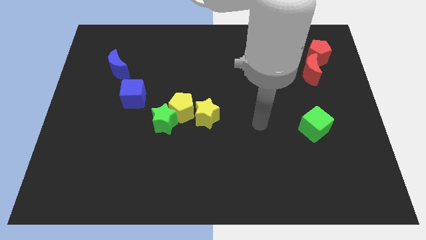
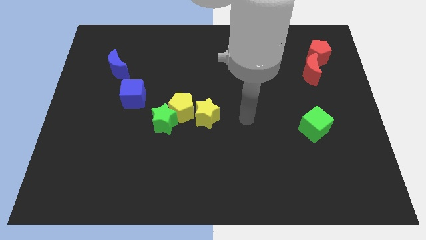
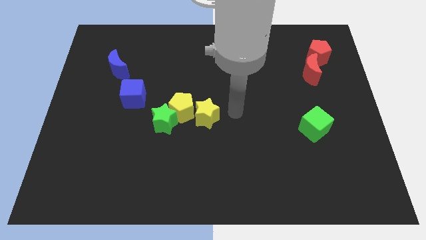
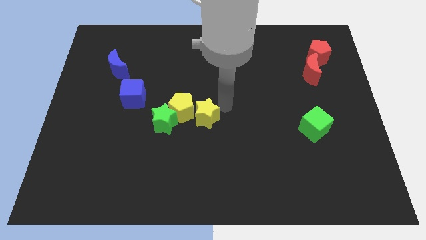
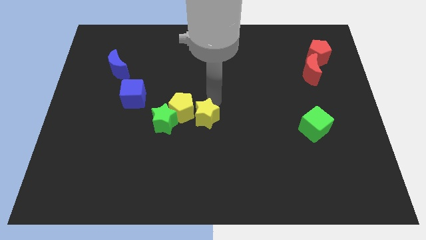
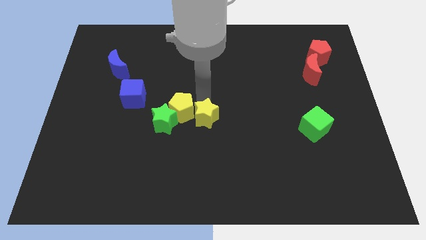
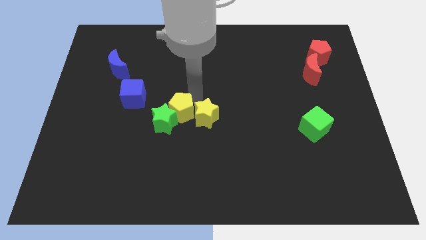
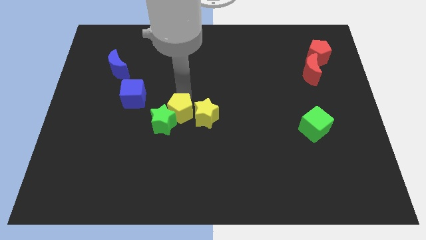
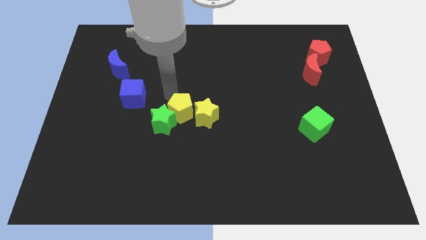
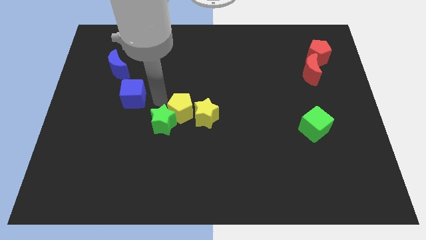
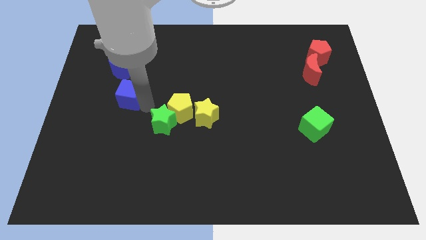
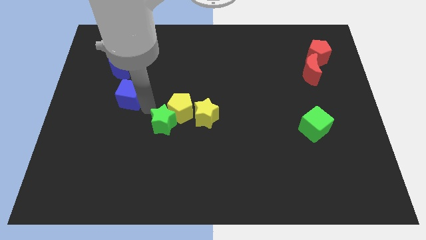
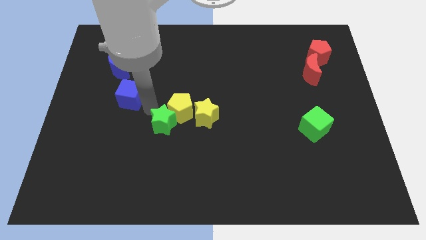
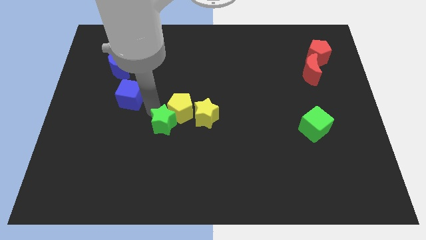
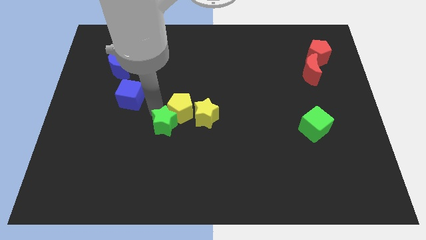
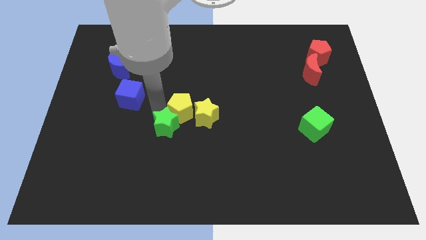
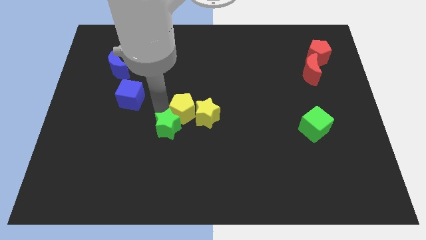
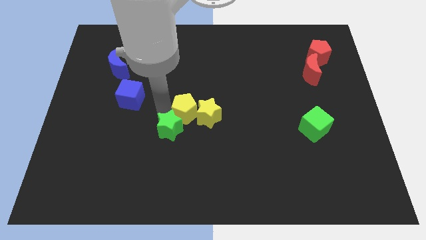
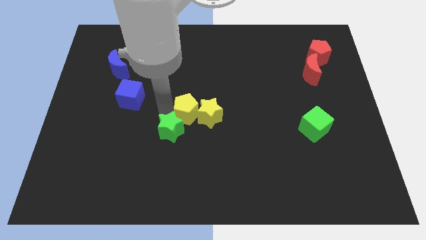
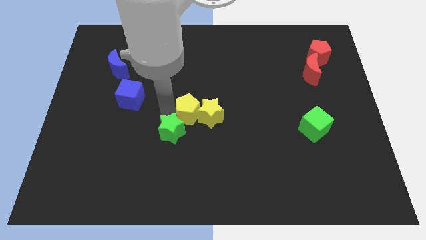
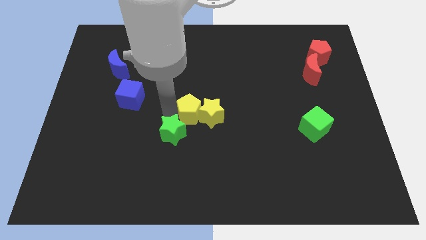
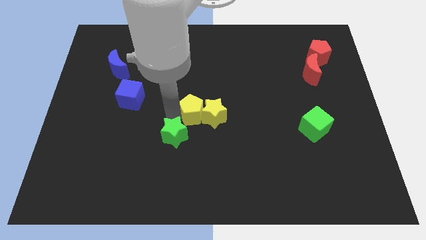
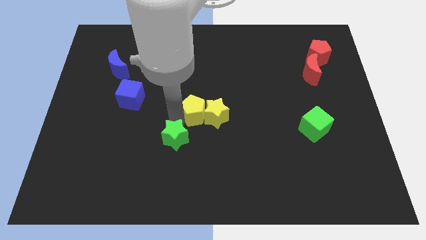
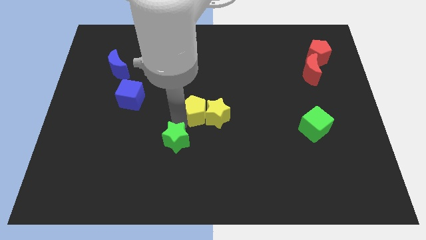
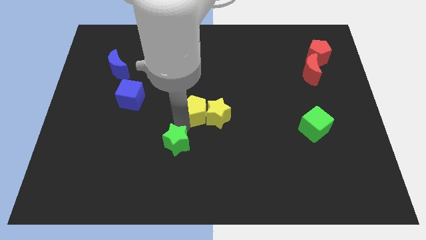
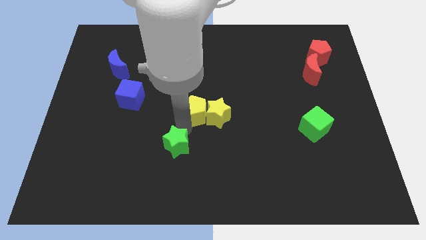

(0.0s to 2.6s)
move the green star a little bit diagonally down and to the right

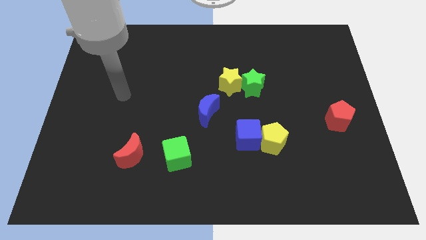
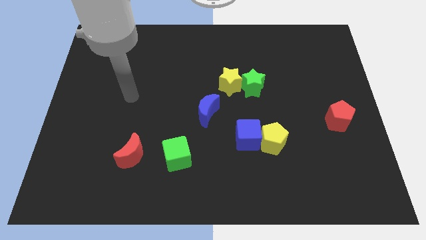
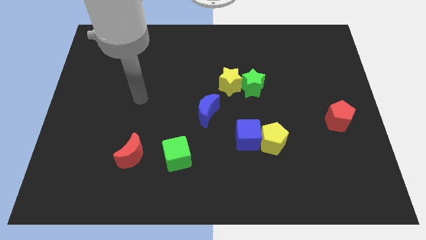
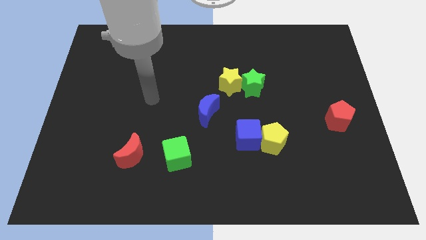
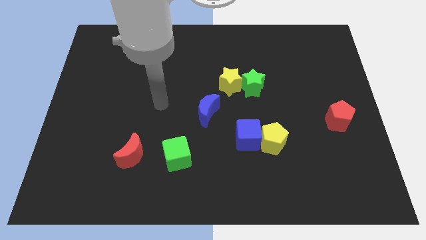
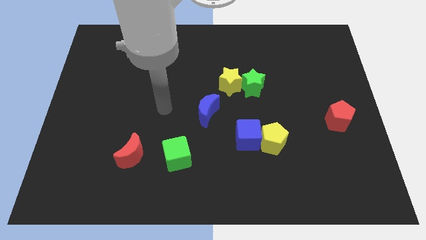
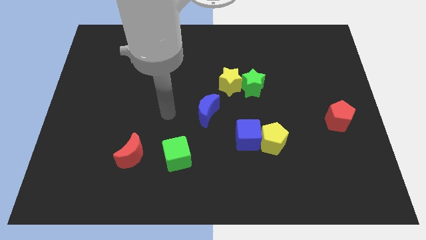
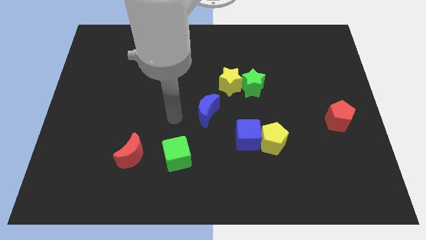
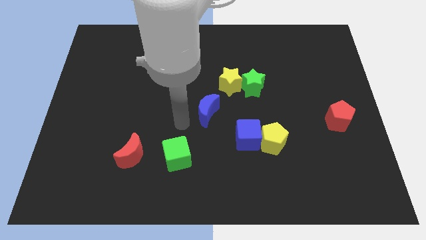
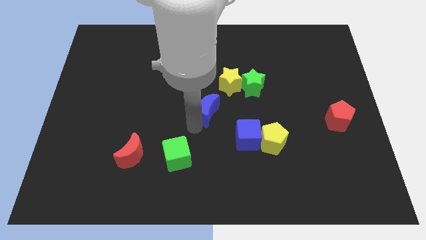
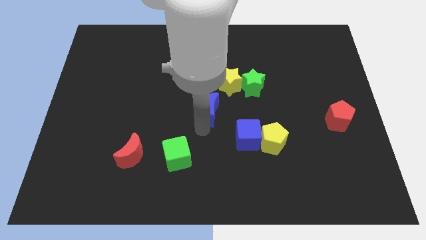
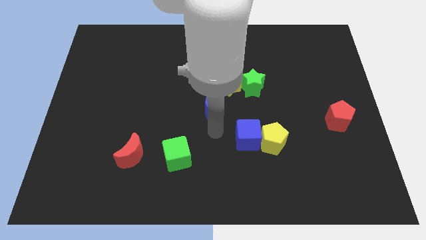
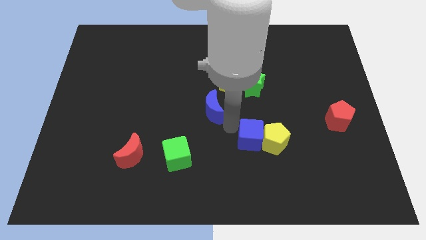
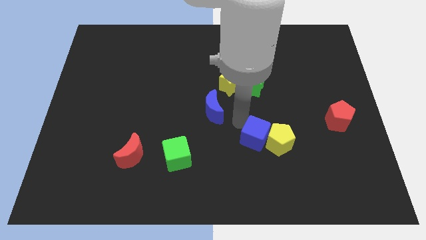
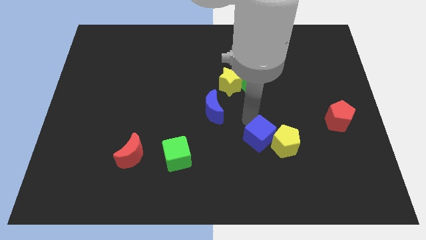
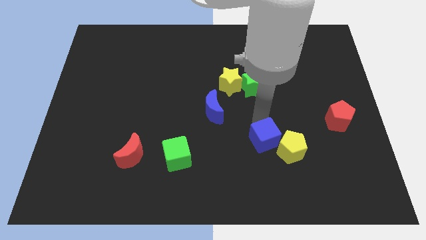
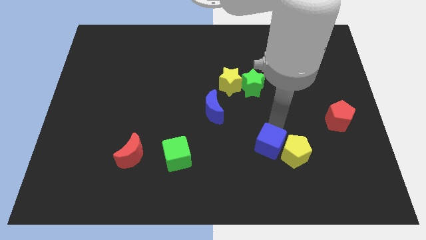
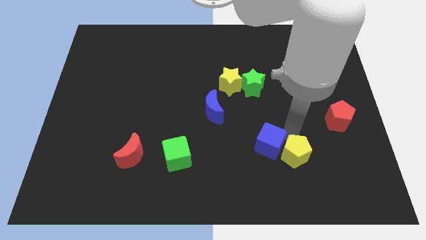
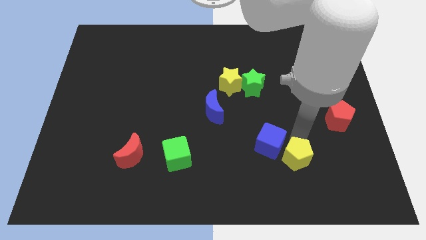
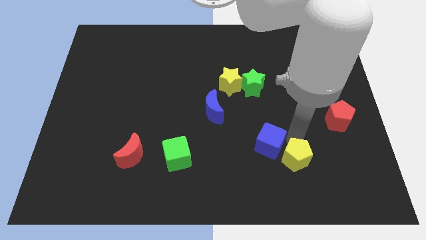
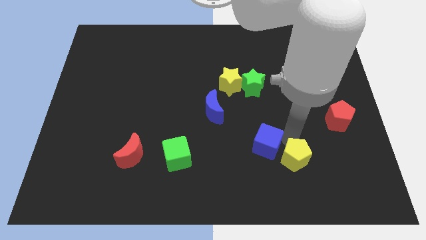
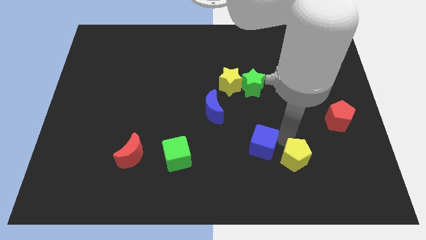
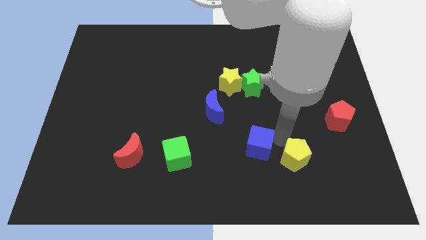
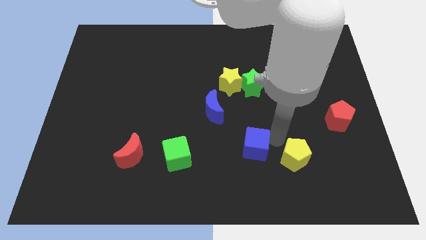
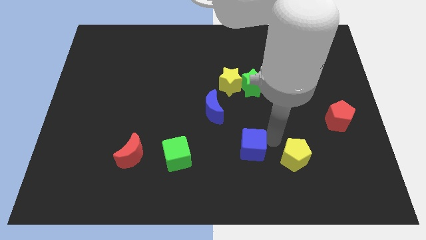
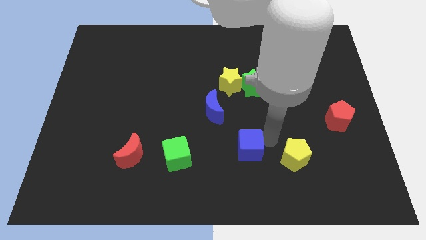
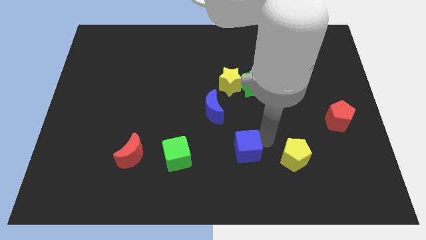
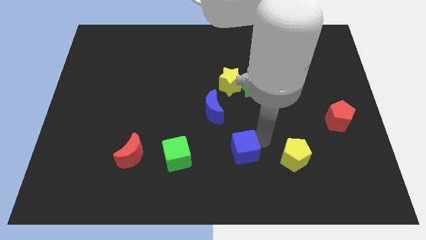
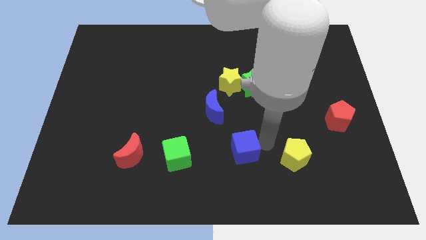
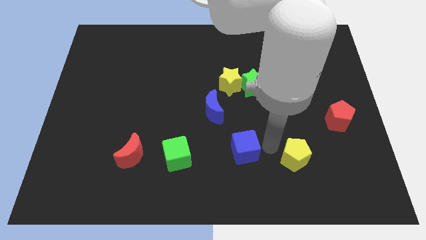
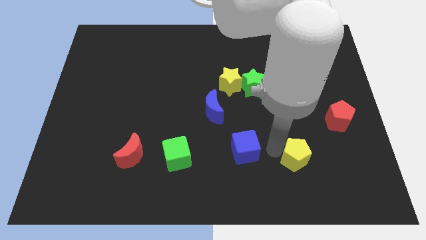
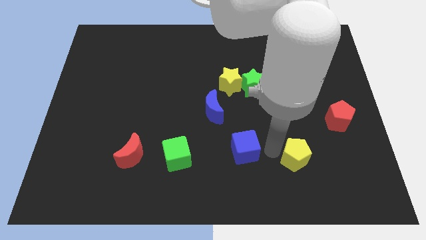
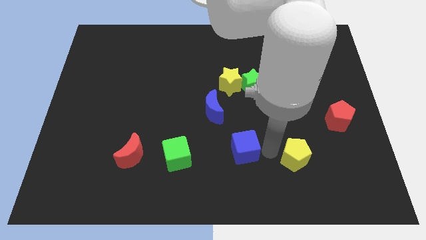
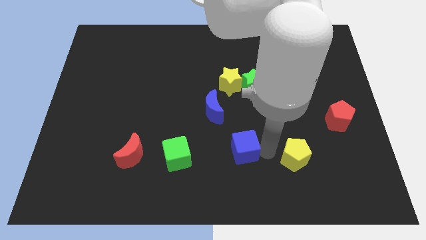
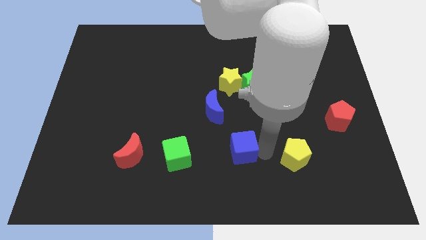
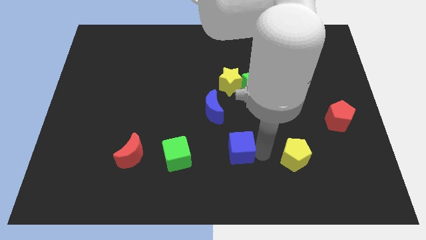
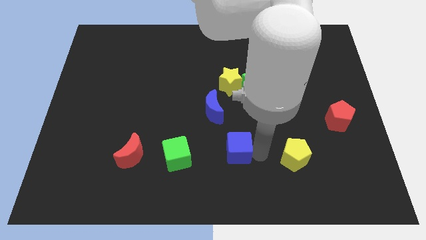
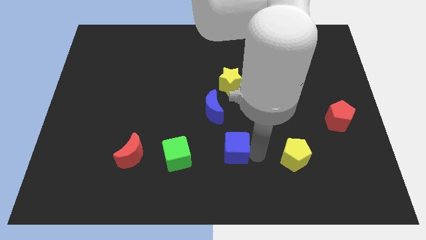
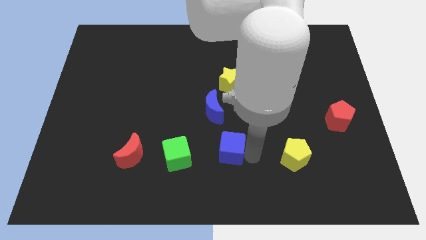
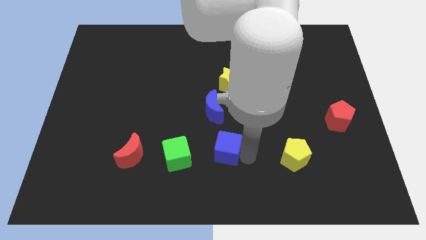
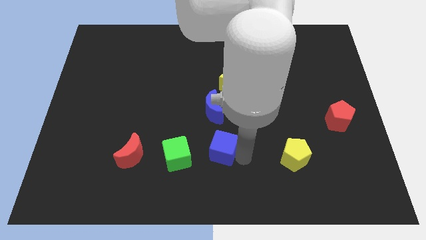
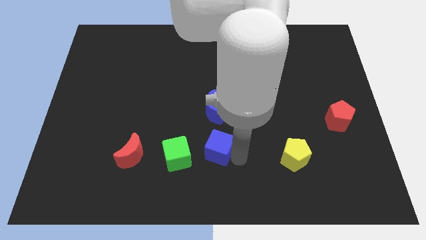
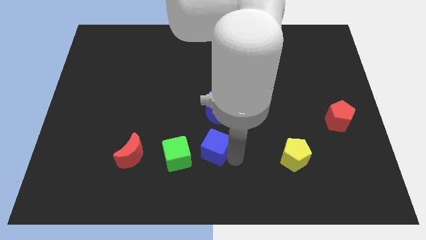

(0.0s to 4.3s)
slightly move the blue cube left

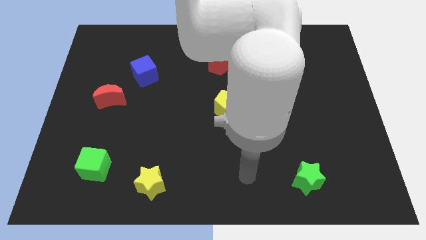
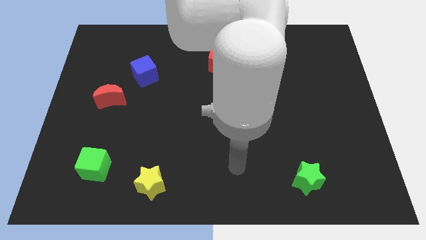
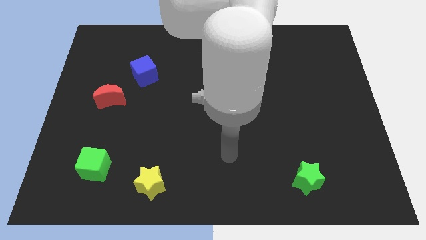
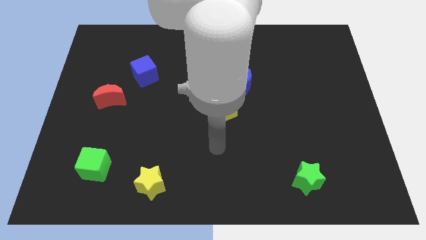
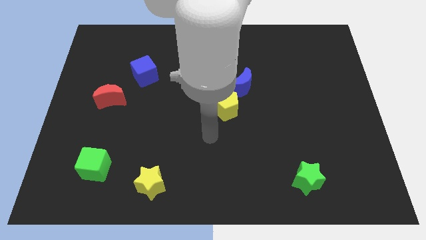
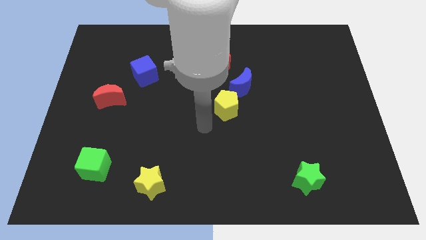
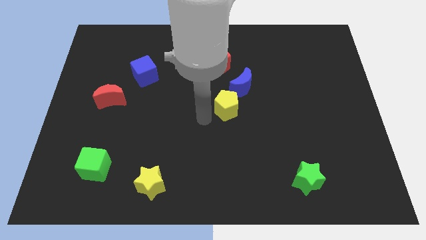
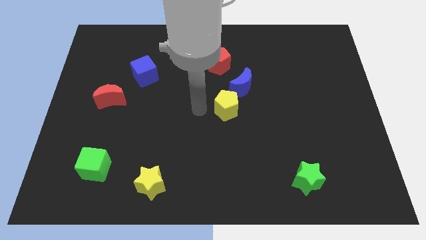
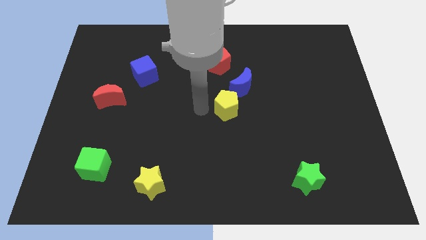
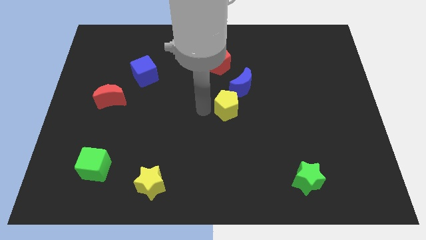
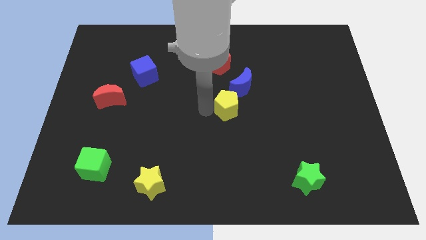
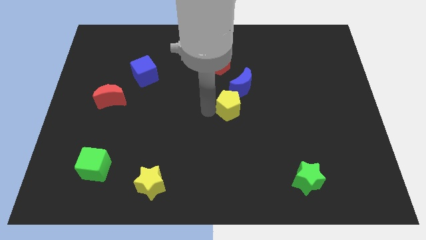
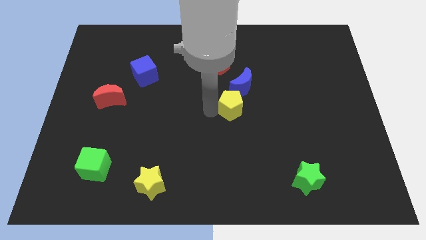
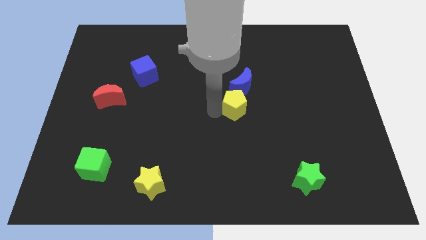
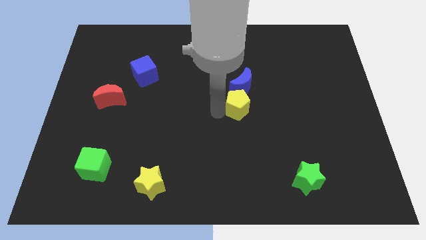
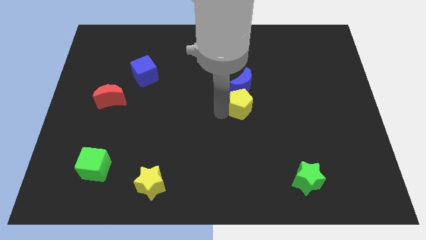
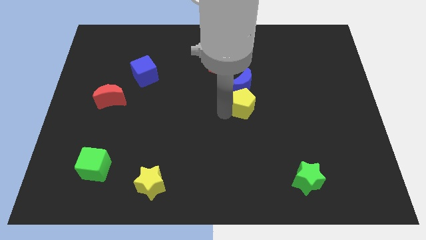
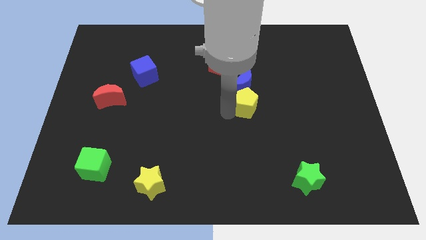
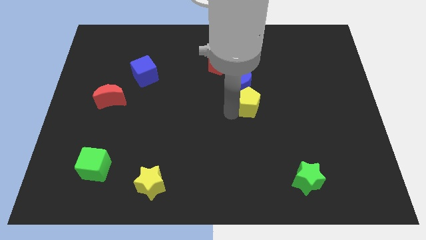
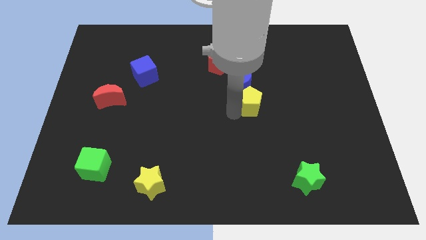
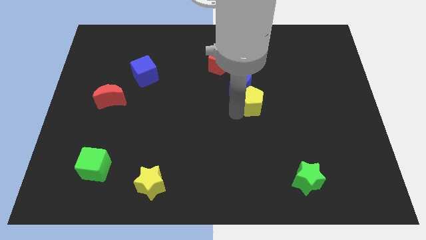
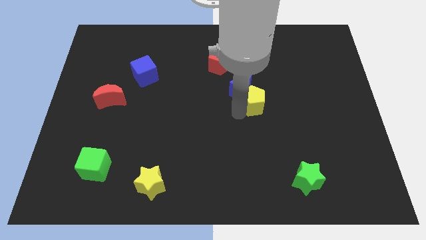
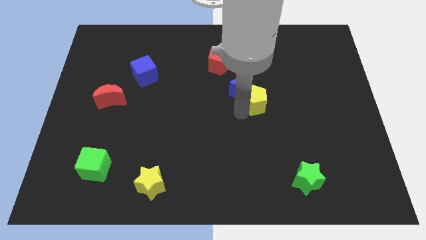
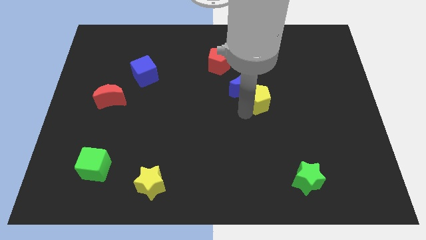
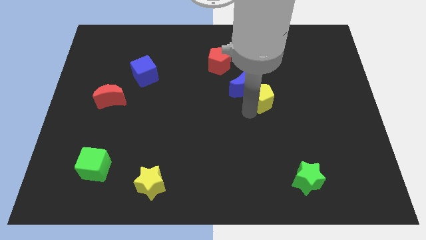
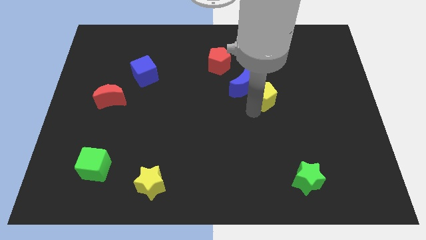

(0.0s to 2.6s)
slide the yellow pentagon up and to the right slightly
